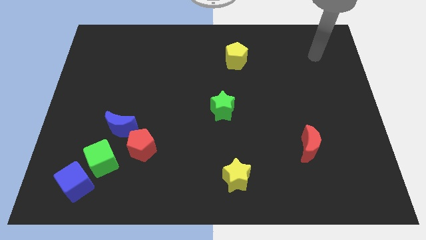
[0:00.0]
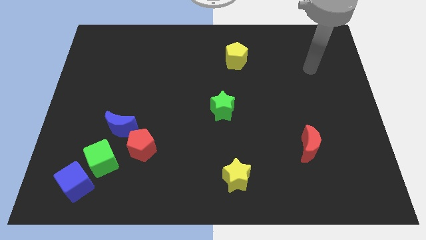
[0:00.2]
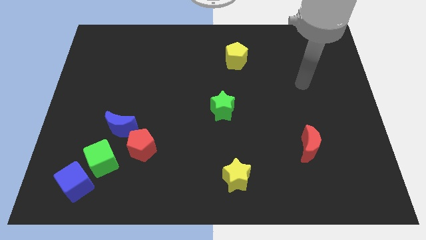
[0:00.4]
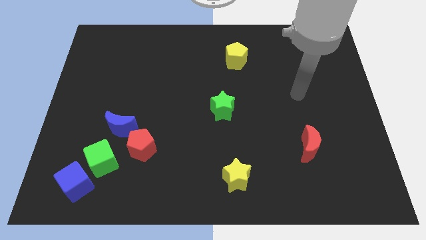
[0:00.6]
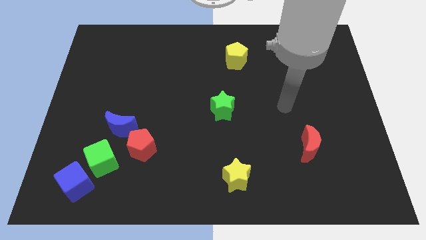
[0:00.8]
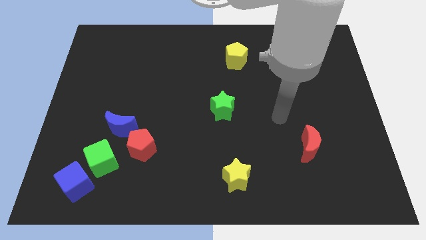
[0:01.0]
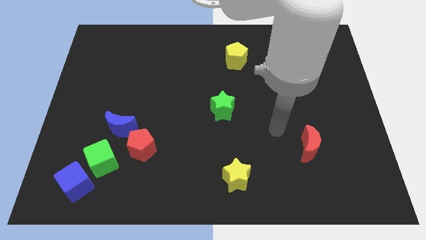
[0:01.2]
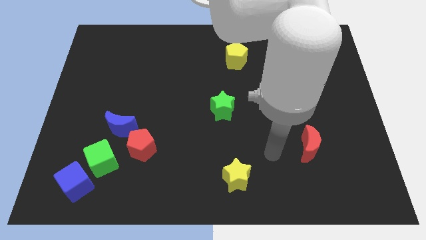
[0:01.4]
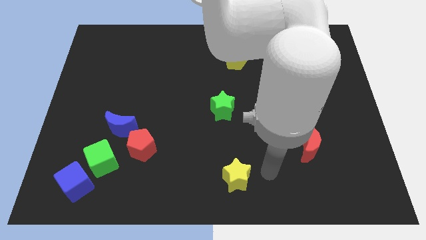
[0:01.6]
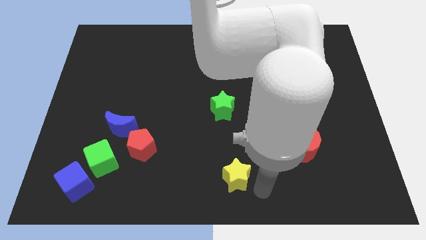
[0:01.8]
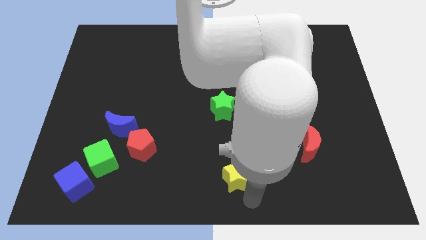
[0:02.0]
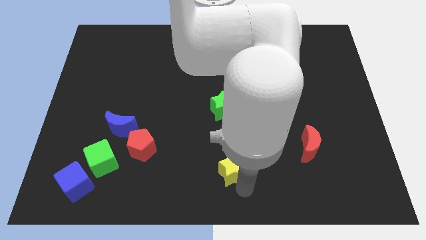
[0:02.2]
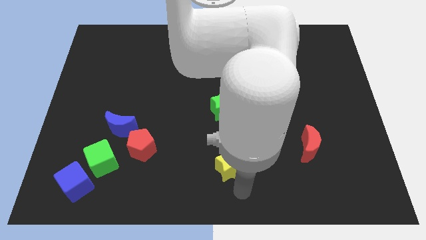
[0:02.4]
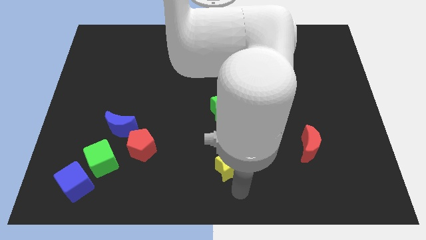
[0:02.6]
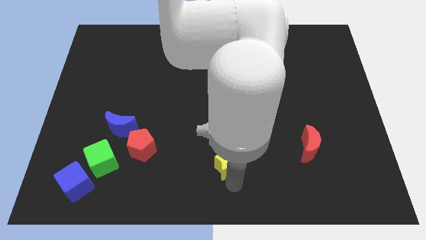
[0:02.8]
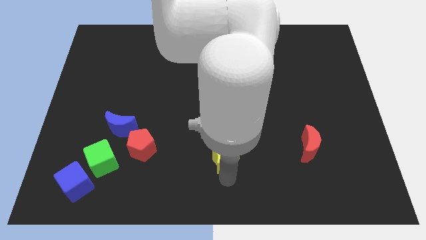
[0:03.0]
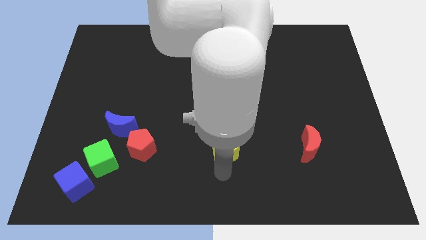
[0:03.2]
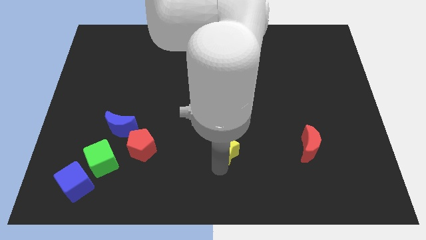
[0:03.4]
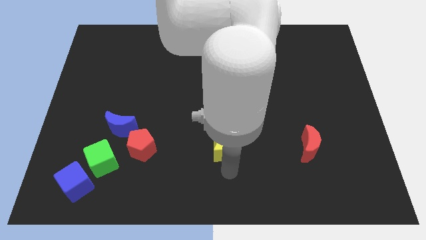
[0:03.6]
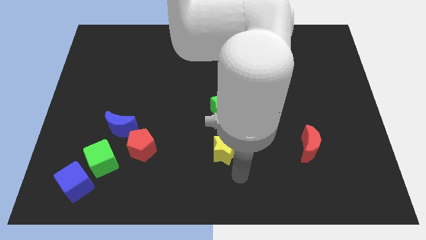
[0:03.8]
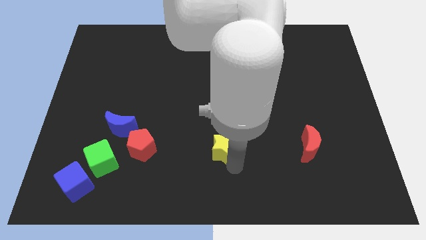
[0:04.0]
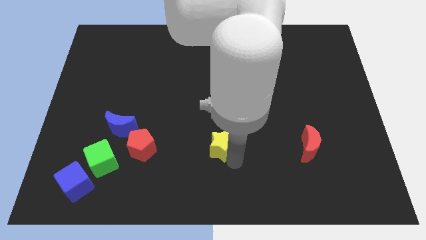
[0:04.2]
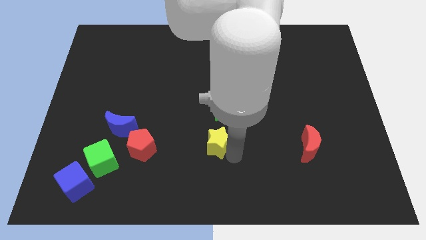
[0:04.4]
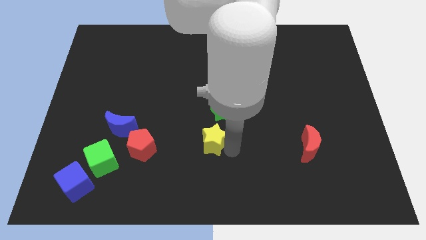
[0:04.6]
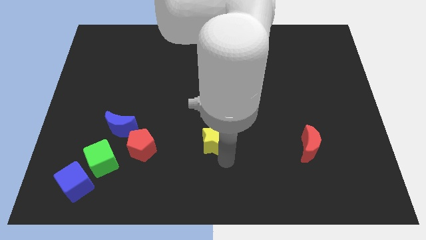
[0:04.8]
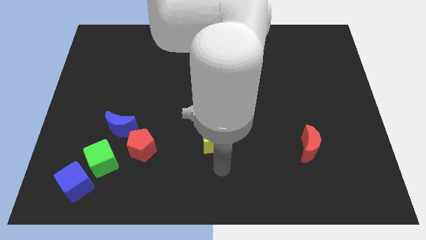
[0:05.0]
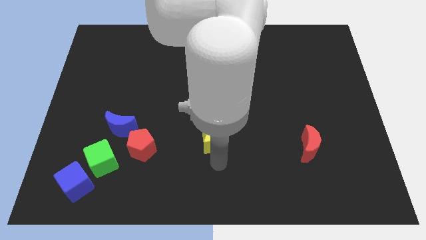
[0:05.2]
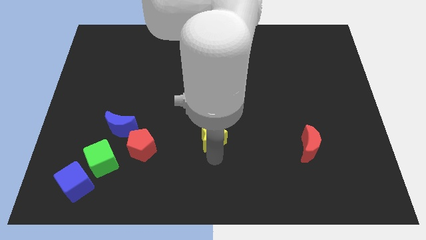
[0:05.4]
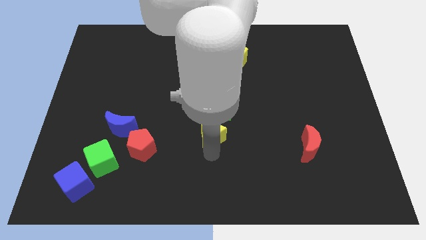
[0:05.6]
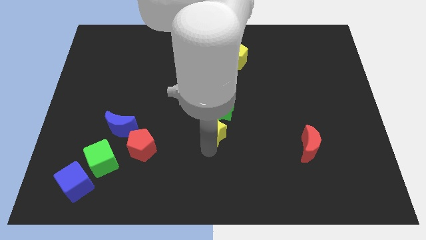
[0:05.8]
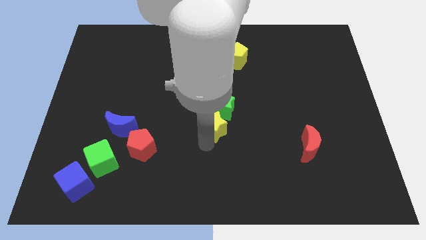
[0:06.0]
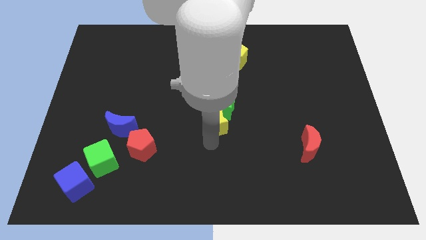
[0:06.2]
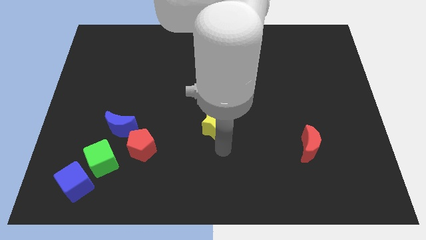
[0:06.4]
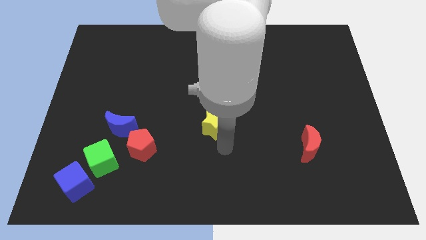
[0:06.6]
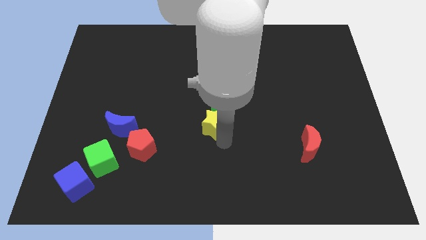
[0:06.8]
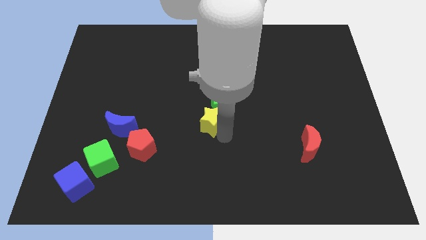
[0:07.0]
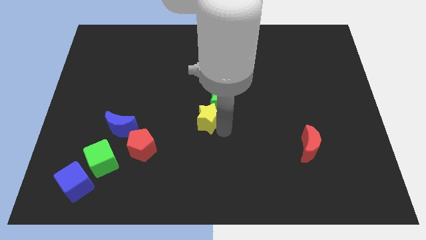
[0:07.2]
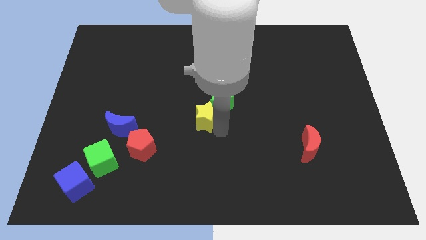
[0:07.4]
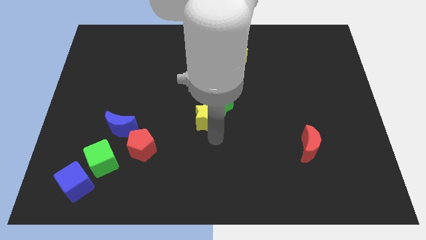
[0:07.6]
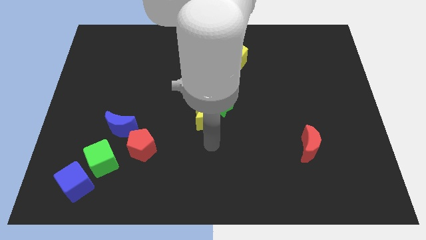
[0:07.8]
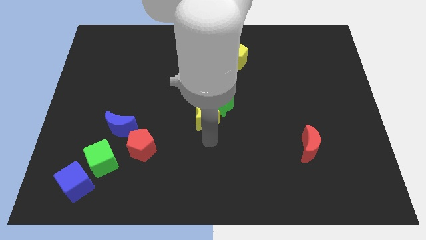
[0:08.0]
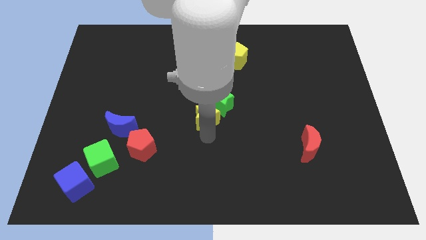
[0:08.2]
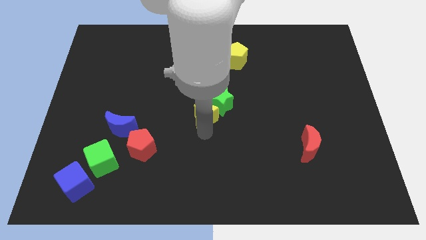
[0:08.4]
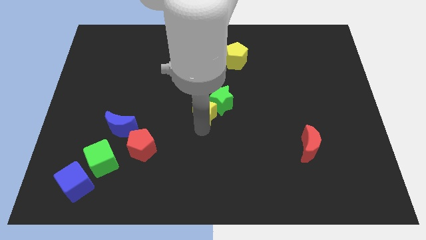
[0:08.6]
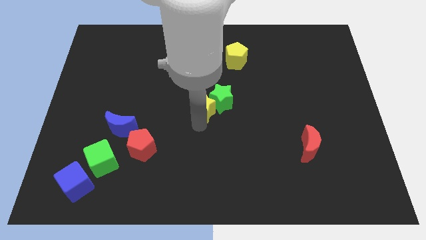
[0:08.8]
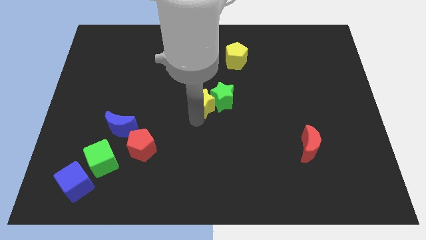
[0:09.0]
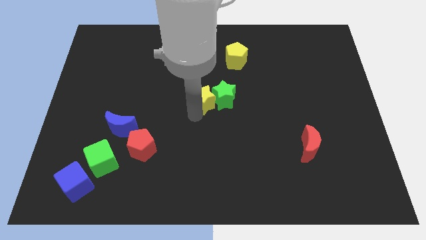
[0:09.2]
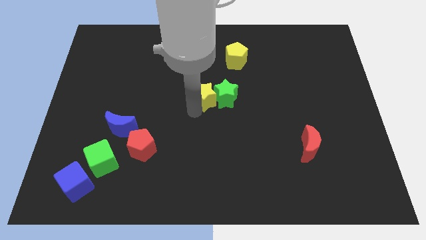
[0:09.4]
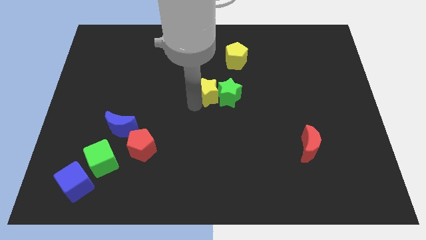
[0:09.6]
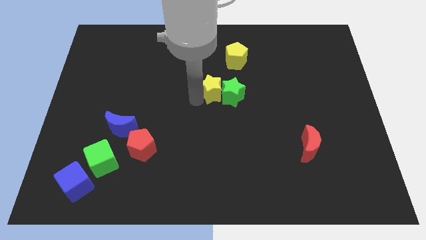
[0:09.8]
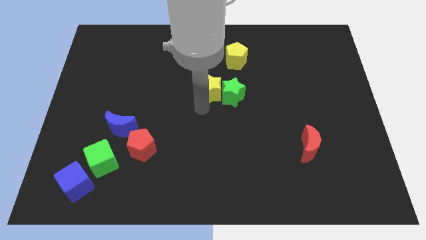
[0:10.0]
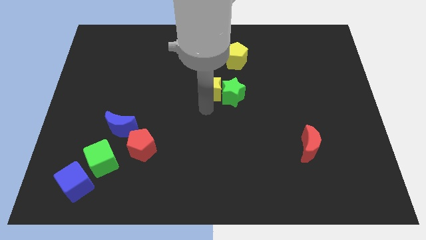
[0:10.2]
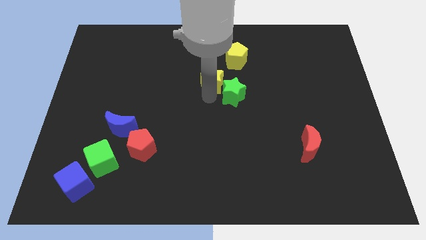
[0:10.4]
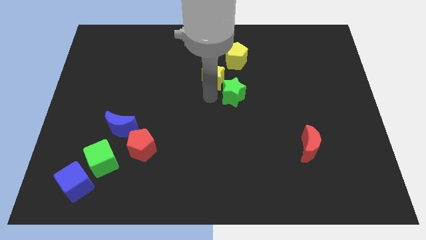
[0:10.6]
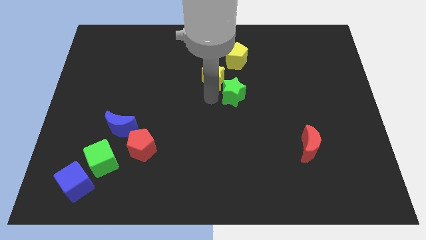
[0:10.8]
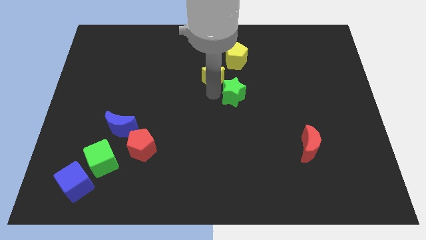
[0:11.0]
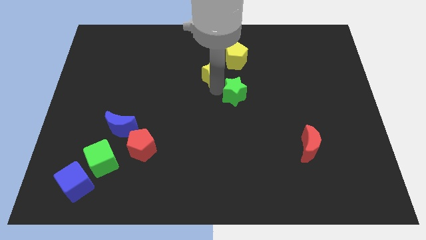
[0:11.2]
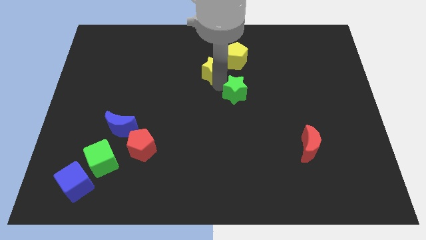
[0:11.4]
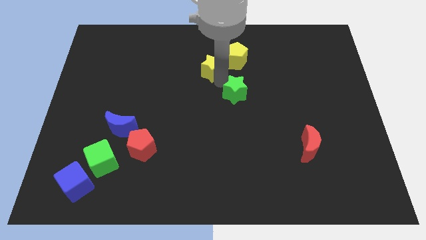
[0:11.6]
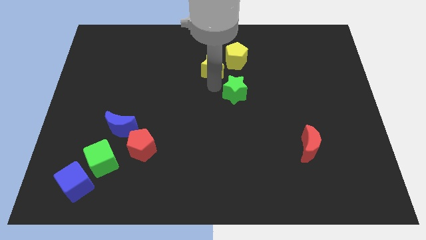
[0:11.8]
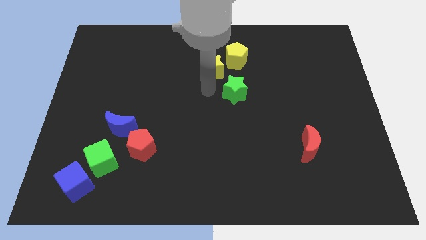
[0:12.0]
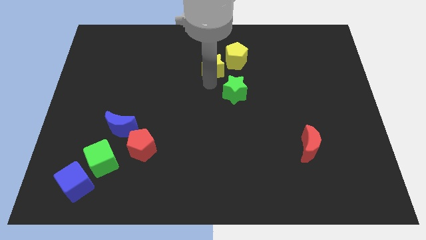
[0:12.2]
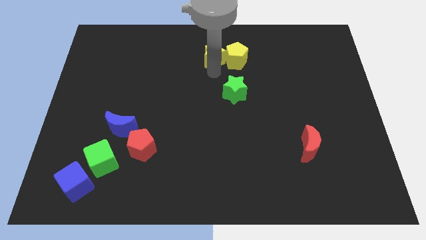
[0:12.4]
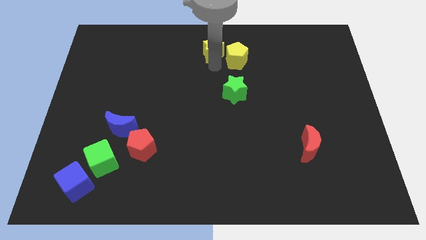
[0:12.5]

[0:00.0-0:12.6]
put the yellow star to the towards your base

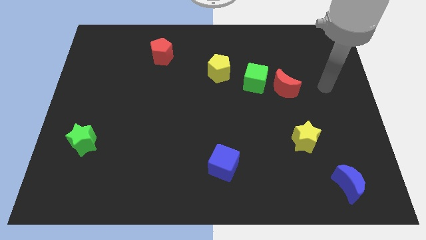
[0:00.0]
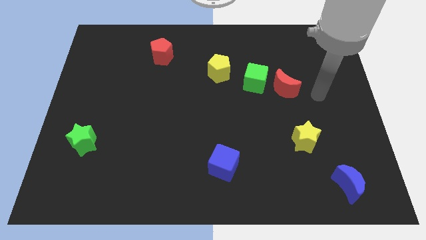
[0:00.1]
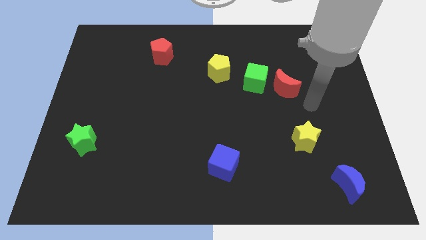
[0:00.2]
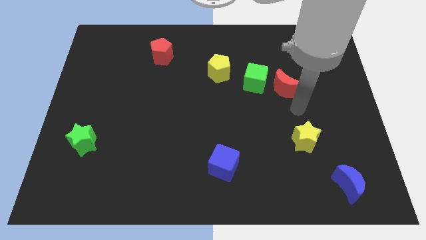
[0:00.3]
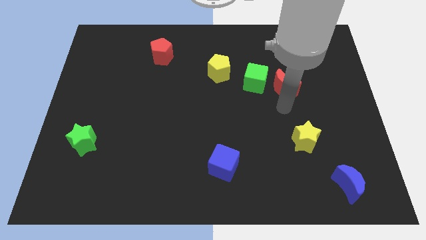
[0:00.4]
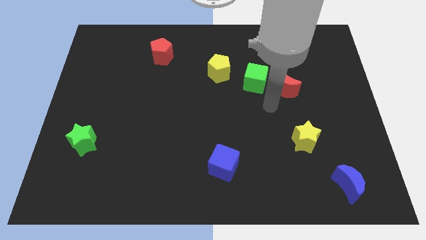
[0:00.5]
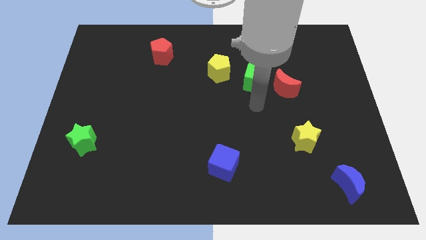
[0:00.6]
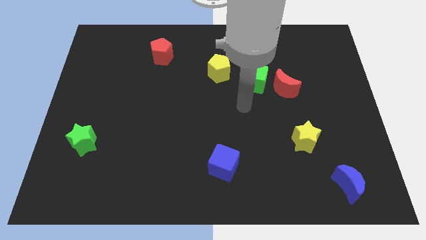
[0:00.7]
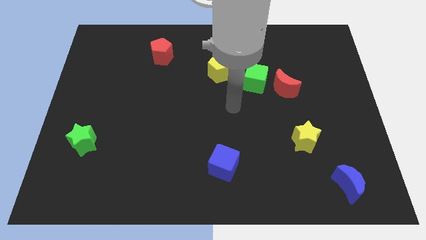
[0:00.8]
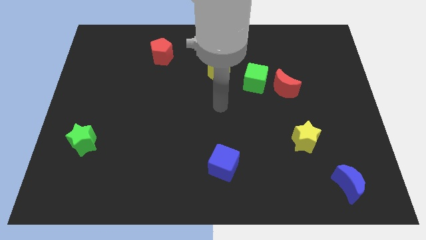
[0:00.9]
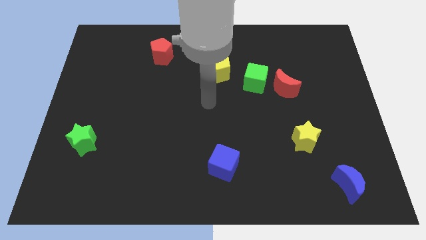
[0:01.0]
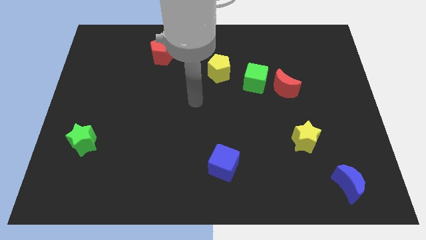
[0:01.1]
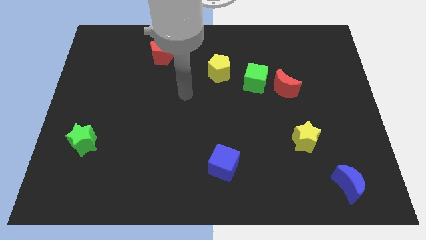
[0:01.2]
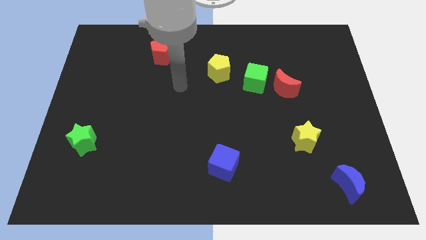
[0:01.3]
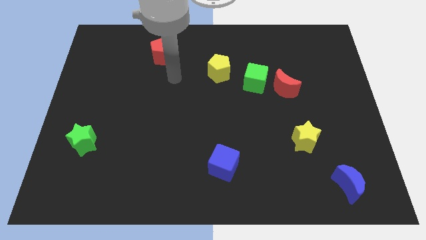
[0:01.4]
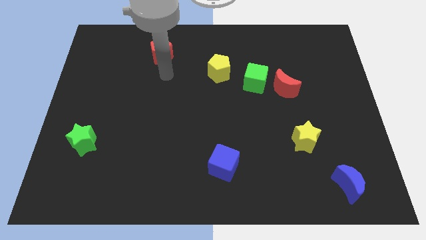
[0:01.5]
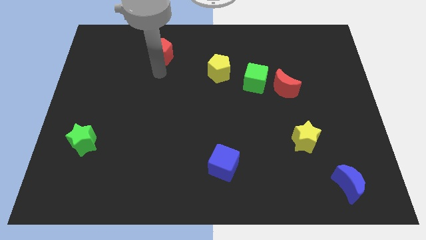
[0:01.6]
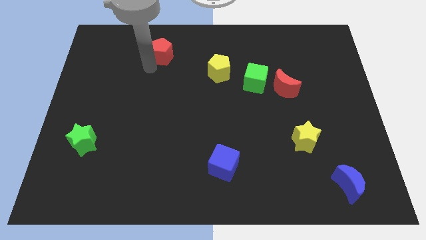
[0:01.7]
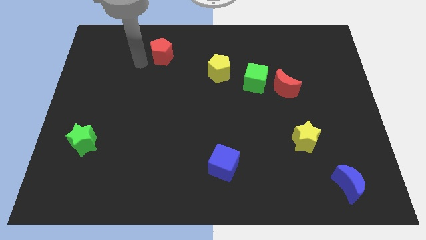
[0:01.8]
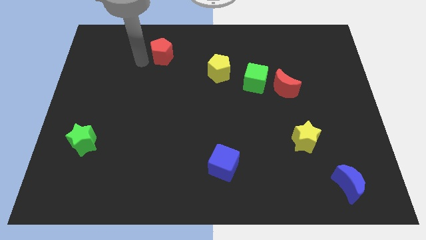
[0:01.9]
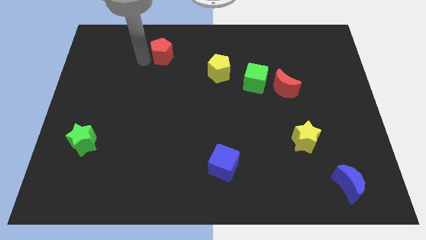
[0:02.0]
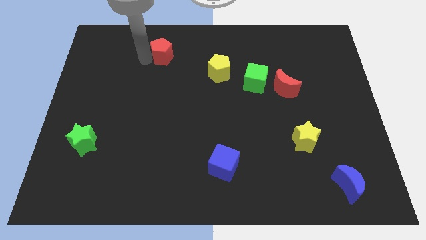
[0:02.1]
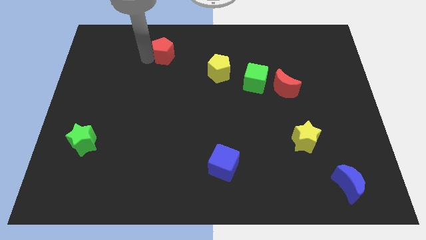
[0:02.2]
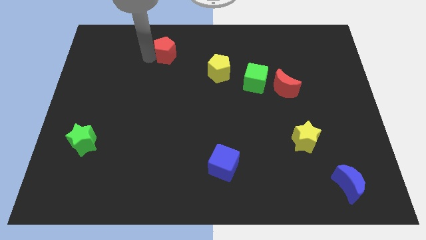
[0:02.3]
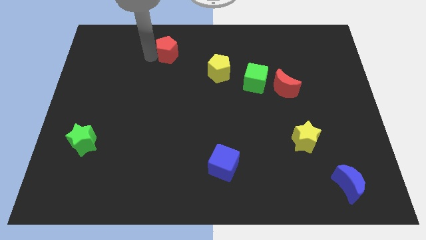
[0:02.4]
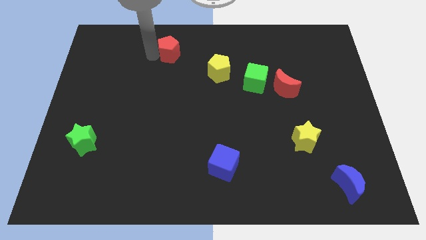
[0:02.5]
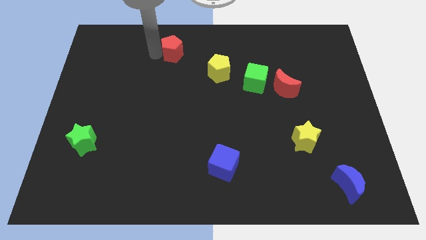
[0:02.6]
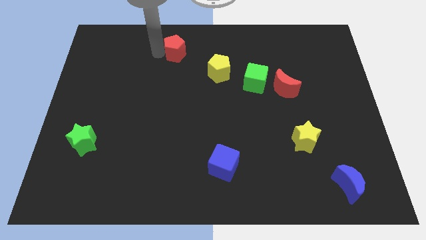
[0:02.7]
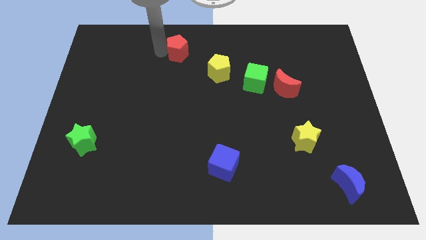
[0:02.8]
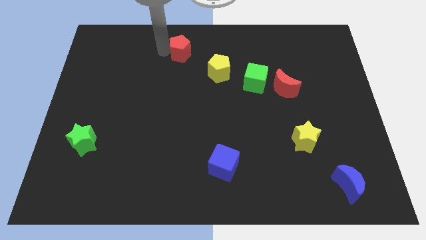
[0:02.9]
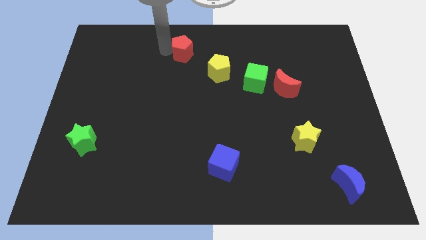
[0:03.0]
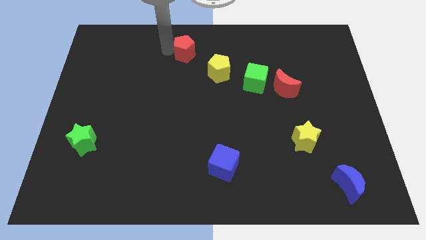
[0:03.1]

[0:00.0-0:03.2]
slide the red pentagon to the towards your base
